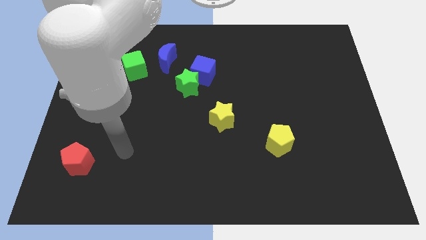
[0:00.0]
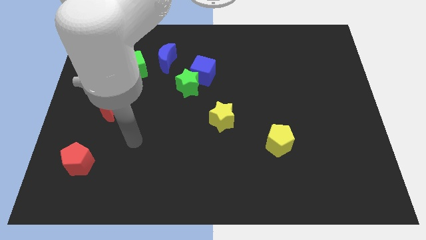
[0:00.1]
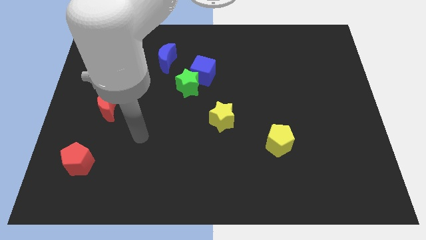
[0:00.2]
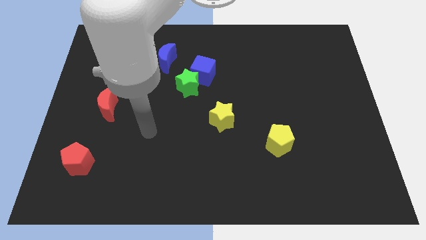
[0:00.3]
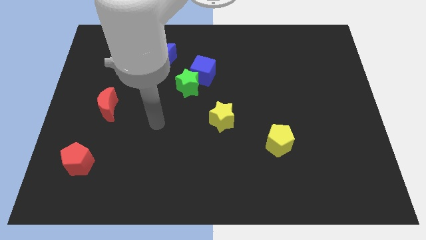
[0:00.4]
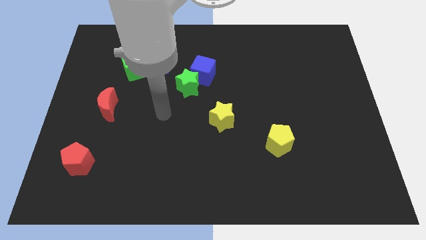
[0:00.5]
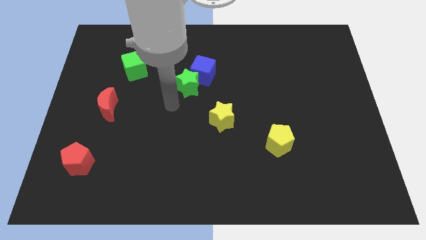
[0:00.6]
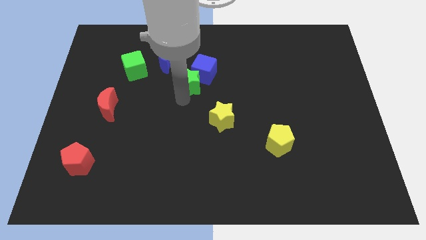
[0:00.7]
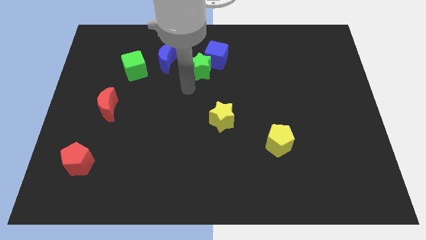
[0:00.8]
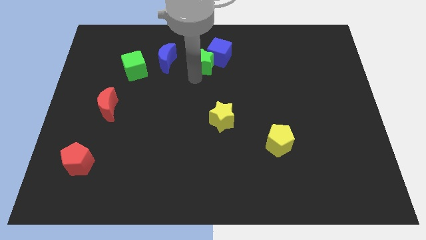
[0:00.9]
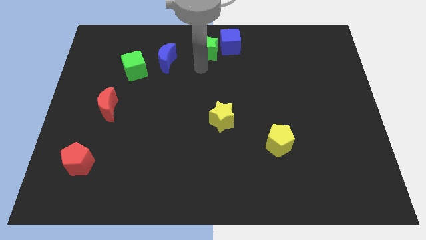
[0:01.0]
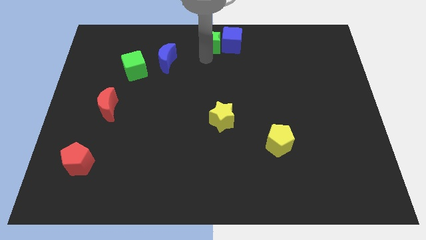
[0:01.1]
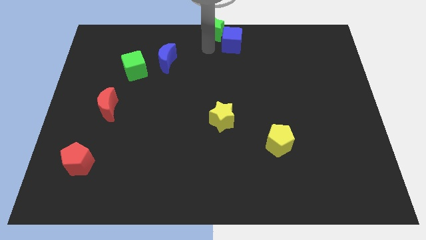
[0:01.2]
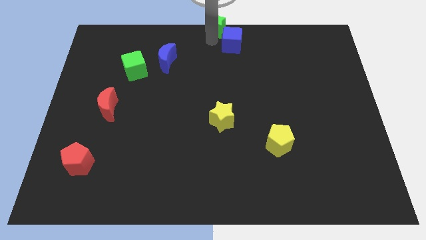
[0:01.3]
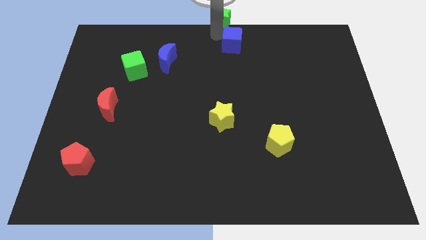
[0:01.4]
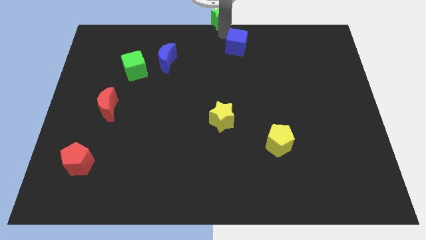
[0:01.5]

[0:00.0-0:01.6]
pull the blue cube apart from the green star

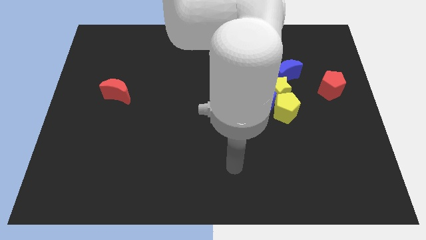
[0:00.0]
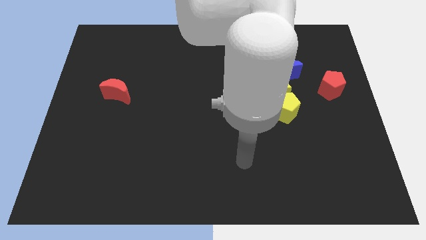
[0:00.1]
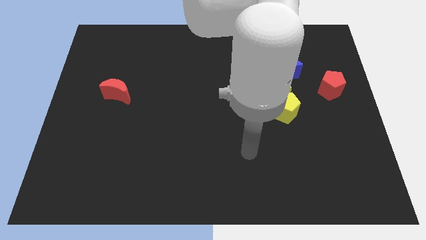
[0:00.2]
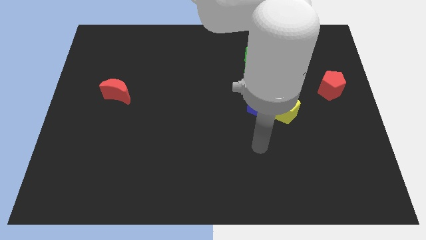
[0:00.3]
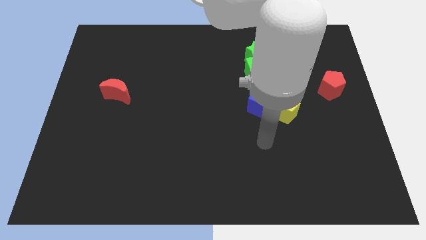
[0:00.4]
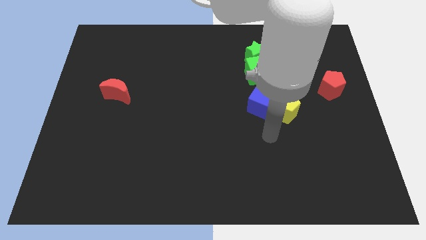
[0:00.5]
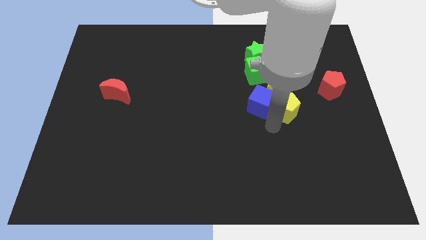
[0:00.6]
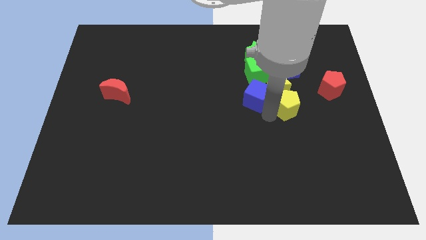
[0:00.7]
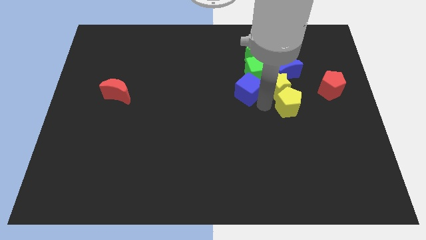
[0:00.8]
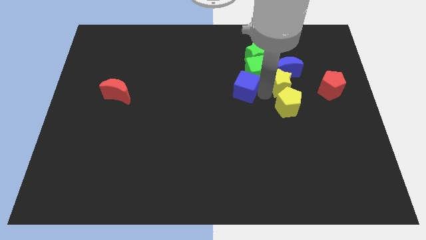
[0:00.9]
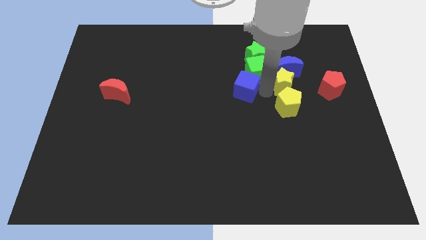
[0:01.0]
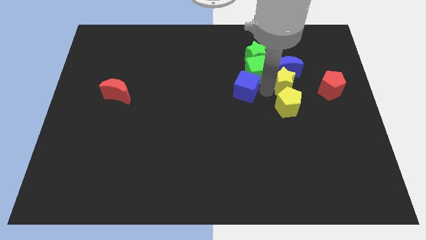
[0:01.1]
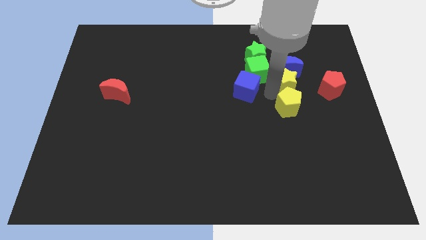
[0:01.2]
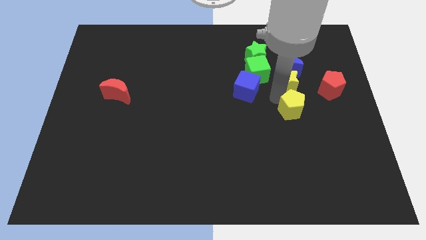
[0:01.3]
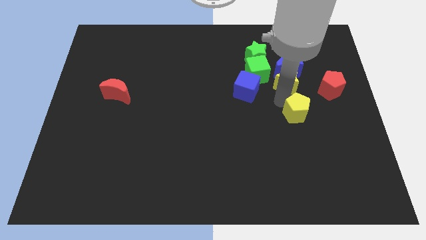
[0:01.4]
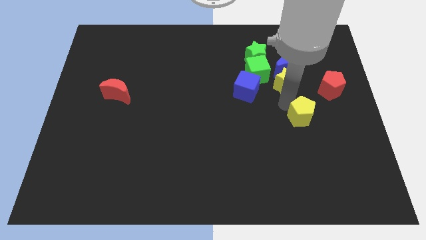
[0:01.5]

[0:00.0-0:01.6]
move the yellow pentagon away from the yellow star and blue cube

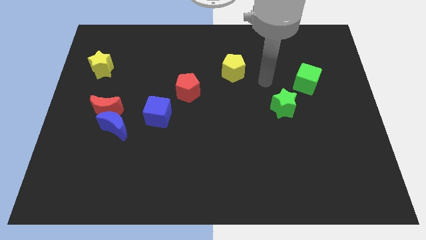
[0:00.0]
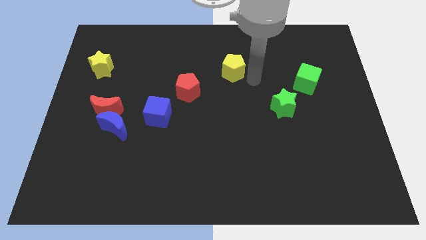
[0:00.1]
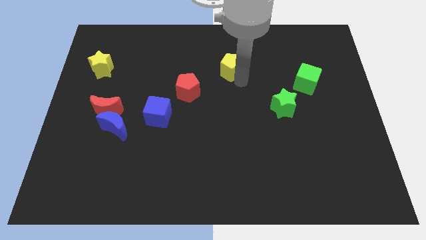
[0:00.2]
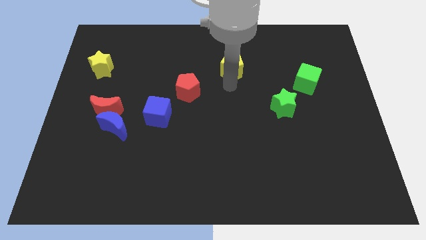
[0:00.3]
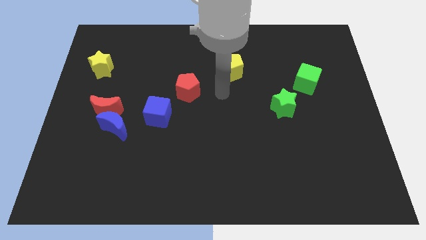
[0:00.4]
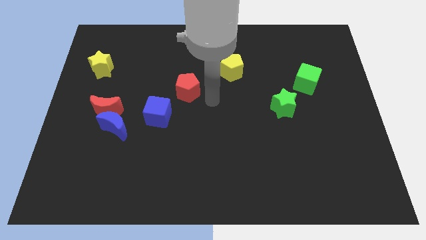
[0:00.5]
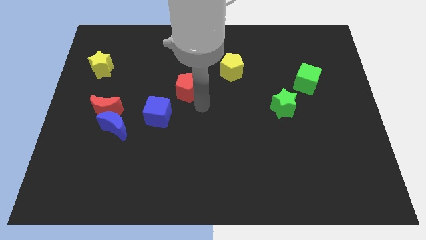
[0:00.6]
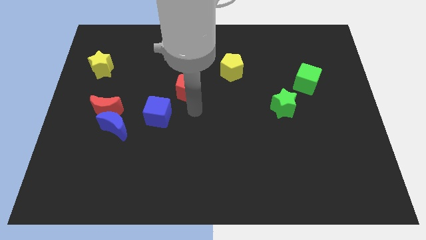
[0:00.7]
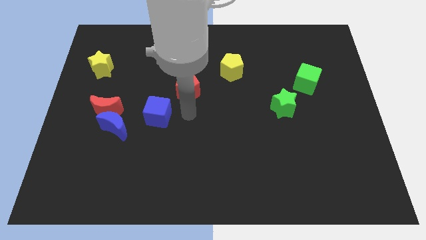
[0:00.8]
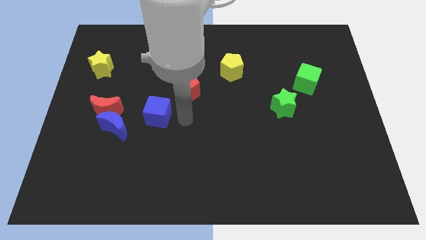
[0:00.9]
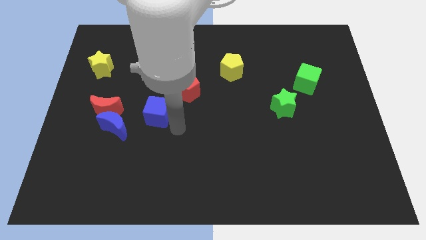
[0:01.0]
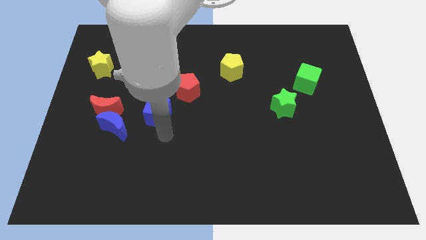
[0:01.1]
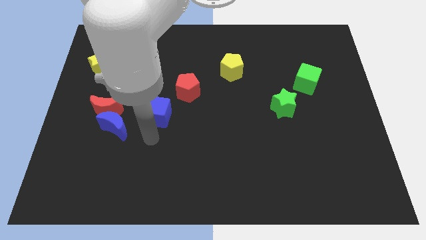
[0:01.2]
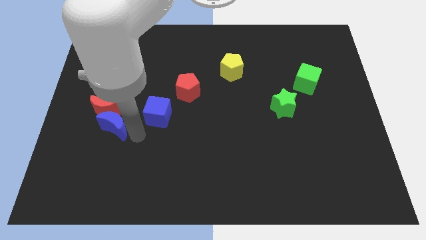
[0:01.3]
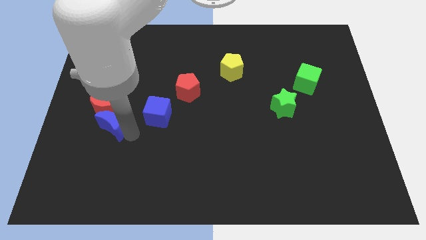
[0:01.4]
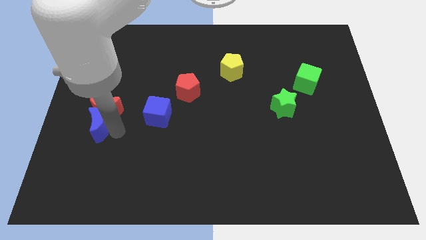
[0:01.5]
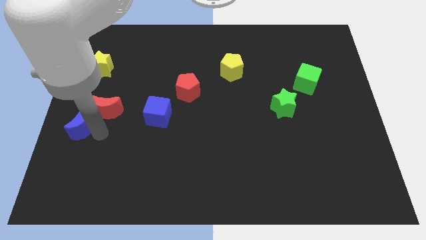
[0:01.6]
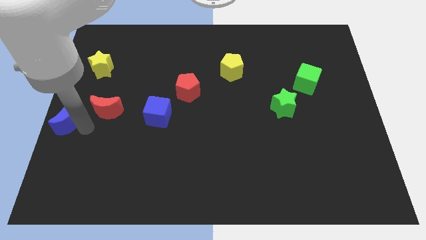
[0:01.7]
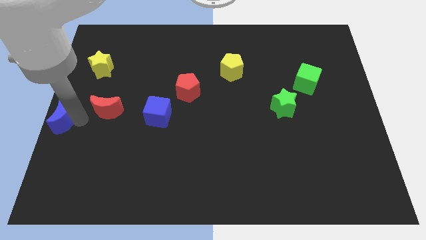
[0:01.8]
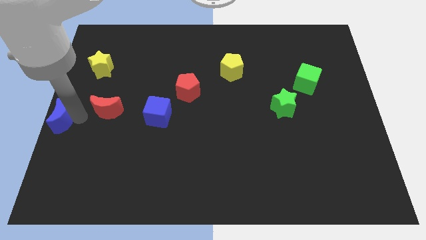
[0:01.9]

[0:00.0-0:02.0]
move the red moon away from the blue moon

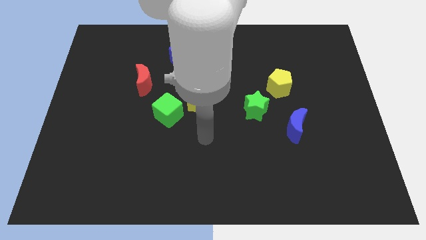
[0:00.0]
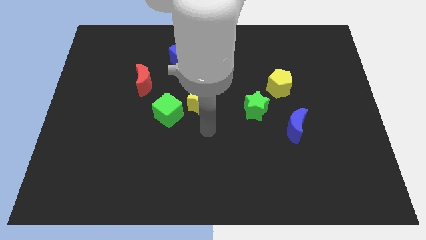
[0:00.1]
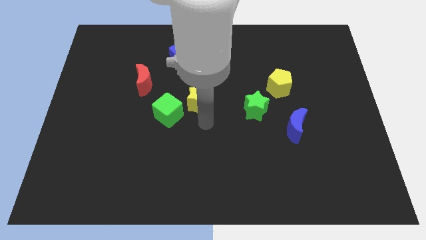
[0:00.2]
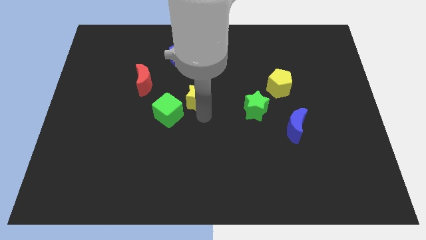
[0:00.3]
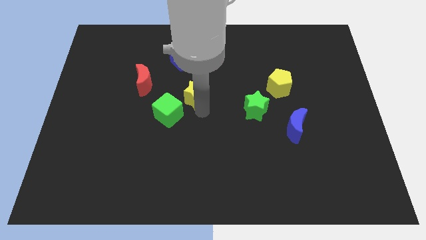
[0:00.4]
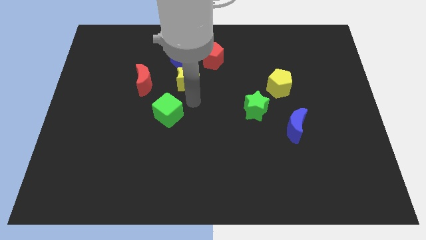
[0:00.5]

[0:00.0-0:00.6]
separate the green cube from the yellow star

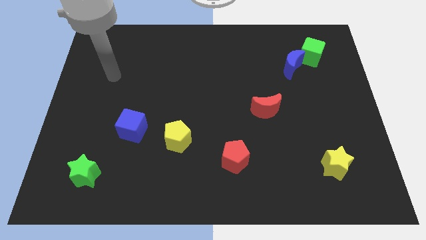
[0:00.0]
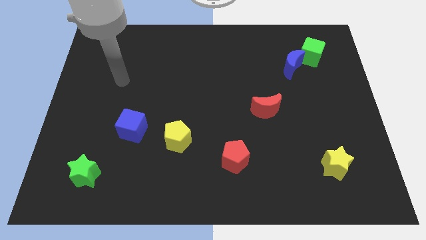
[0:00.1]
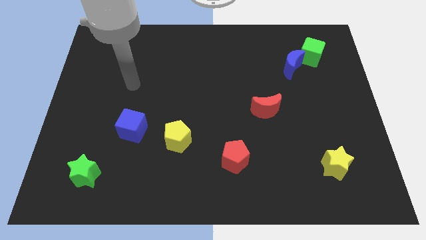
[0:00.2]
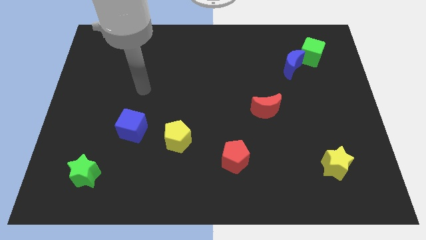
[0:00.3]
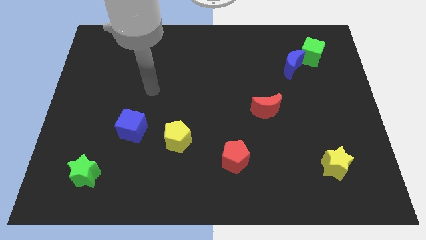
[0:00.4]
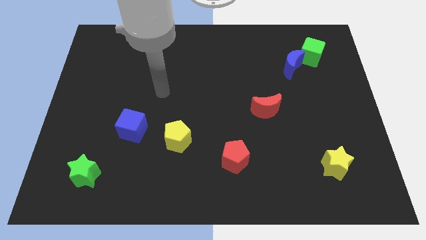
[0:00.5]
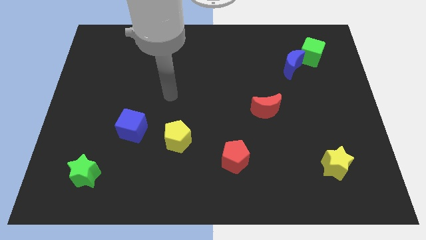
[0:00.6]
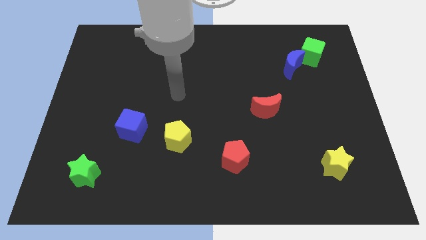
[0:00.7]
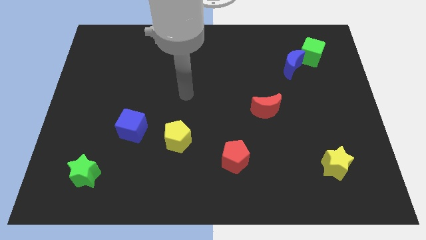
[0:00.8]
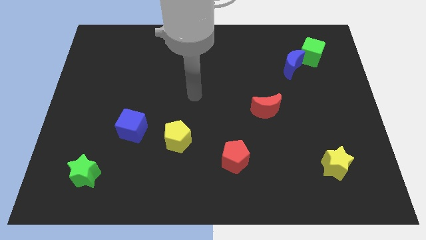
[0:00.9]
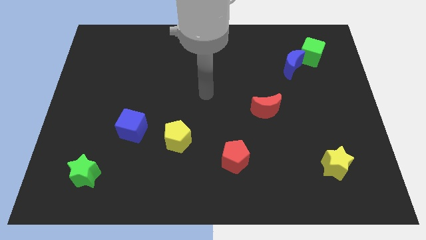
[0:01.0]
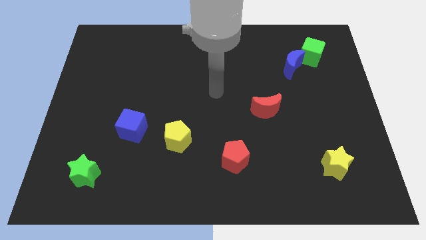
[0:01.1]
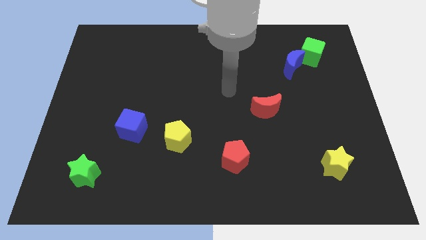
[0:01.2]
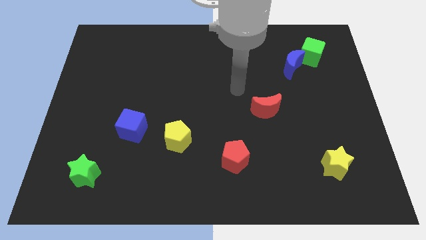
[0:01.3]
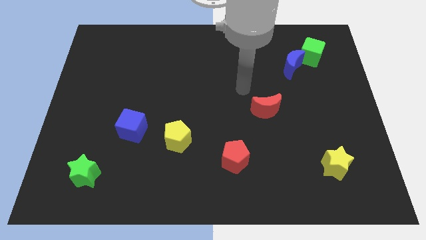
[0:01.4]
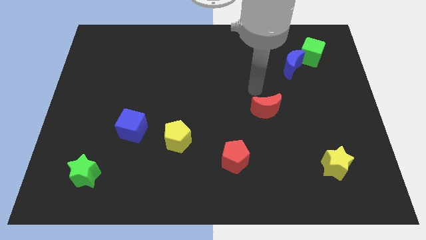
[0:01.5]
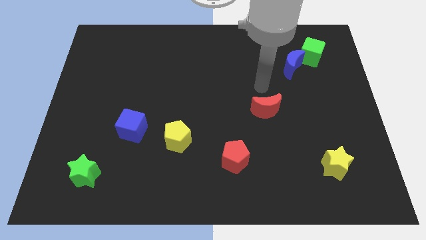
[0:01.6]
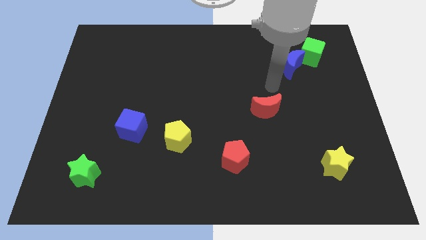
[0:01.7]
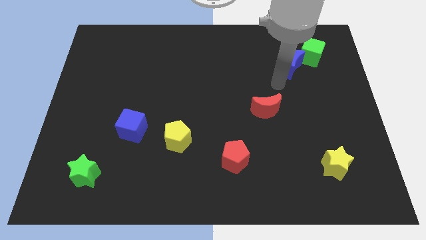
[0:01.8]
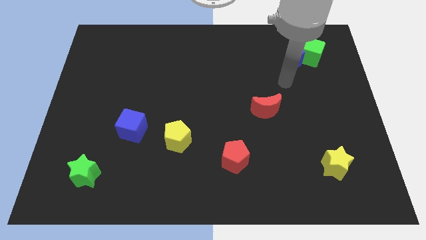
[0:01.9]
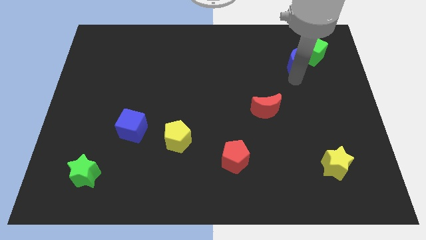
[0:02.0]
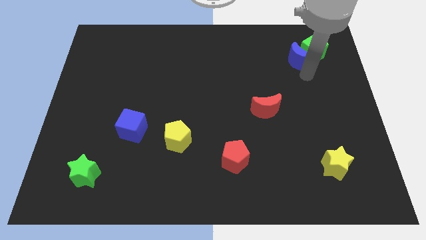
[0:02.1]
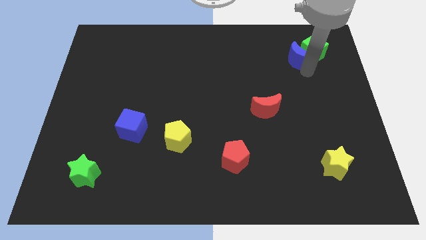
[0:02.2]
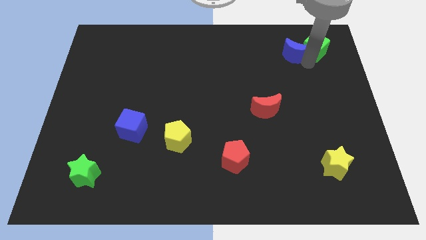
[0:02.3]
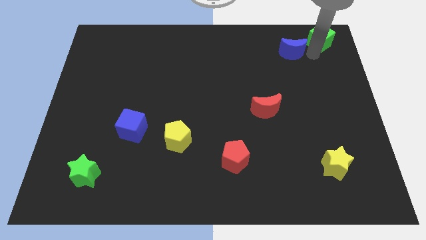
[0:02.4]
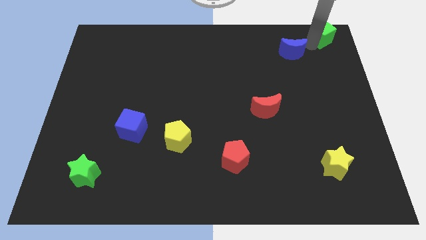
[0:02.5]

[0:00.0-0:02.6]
separate the blue moon from the green cube

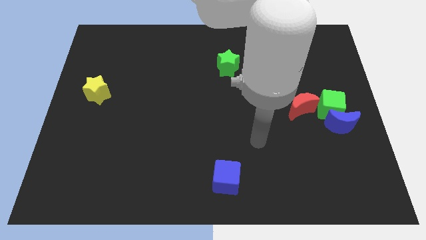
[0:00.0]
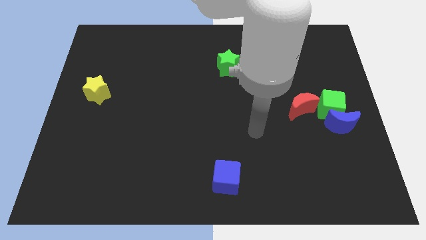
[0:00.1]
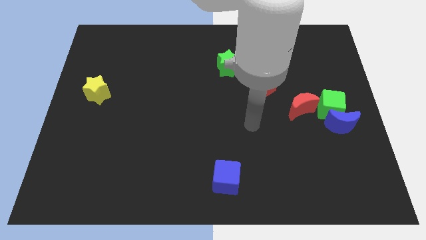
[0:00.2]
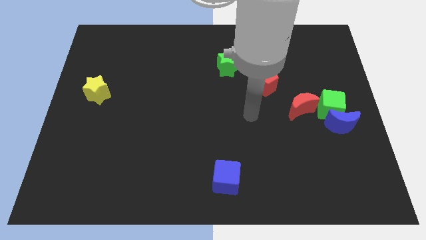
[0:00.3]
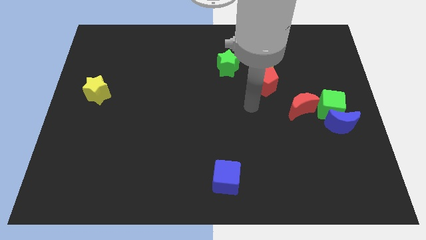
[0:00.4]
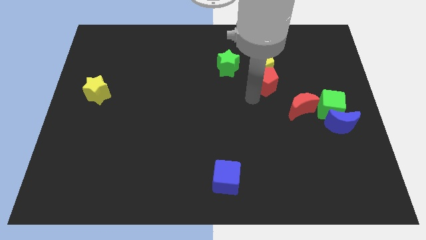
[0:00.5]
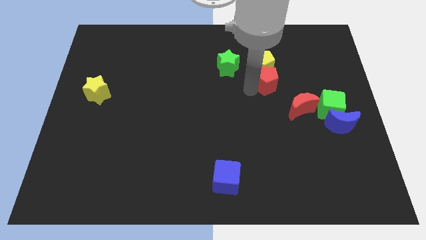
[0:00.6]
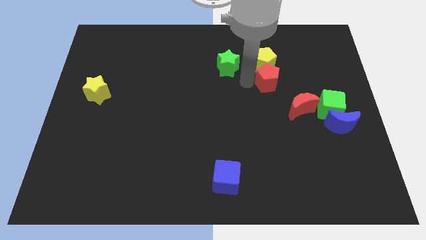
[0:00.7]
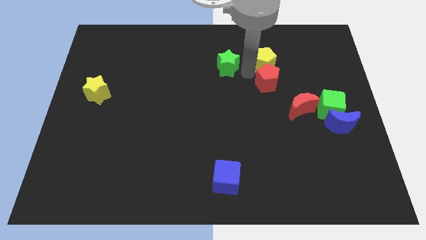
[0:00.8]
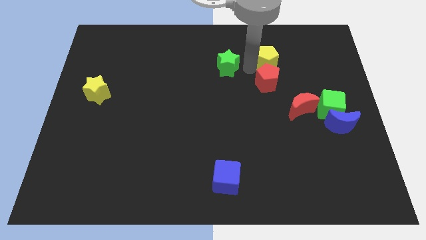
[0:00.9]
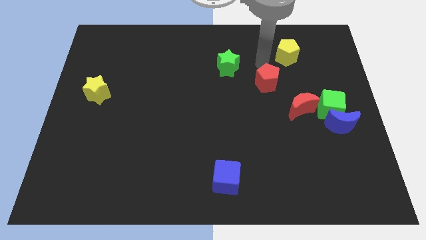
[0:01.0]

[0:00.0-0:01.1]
separate the red pentagon from the yellow pentagon
